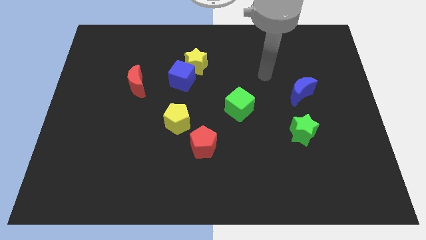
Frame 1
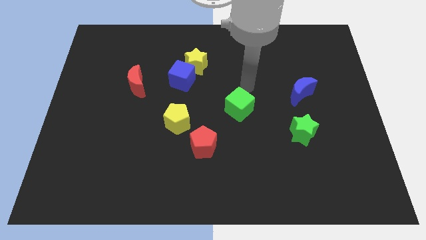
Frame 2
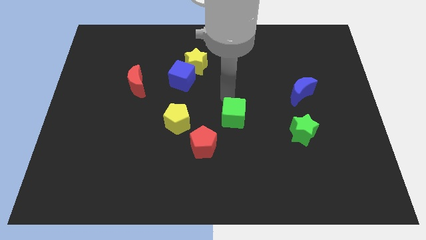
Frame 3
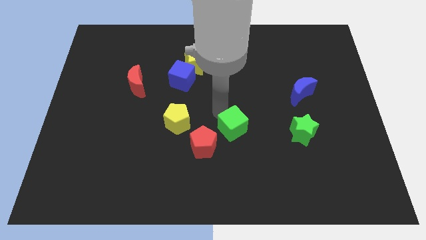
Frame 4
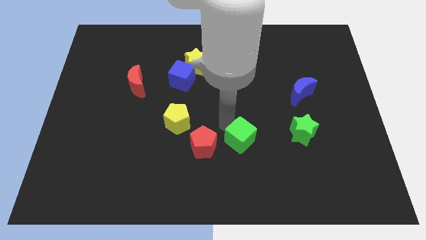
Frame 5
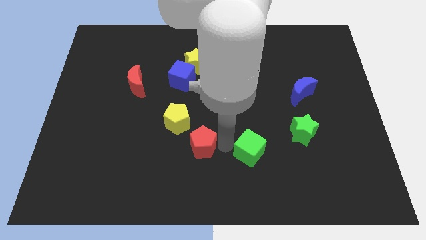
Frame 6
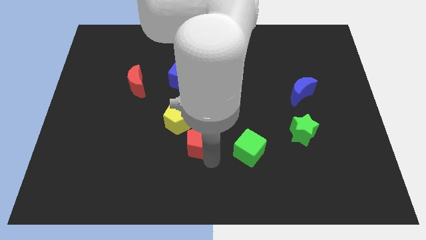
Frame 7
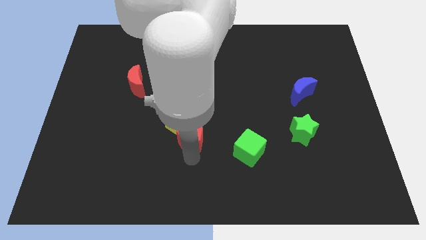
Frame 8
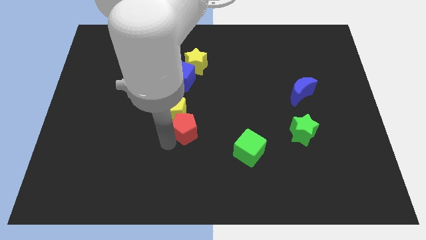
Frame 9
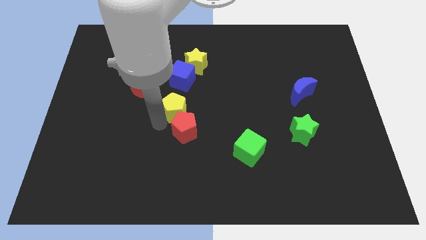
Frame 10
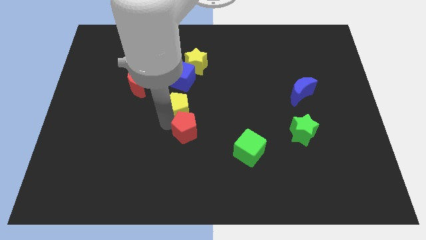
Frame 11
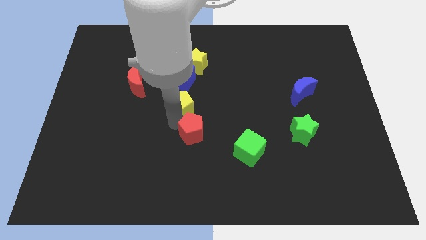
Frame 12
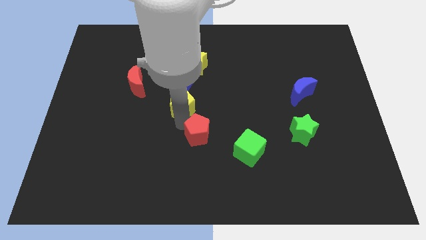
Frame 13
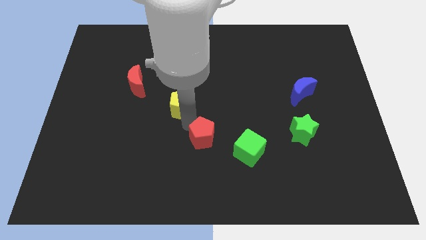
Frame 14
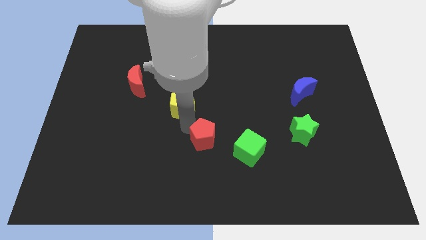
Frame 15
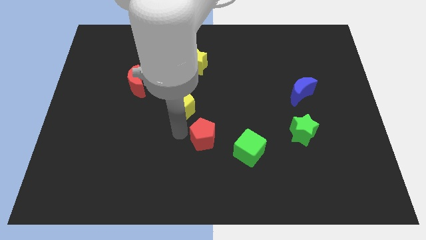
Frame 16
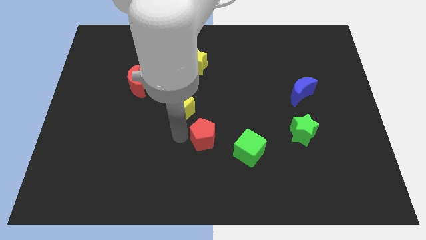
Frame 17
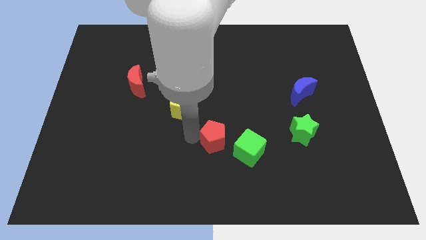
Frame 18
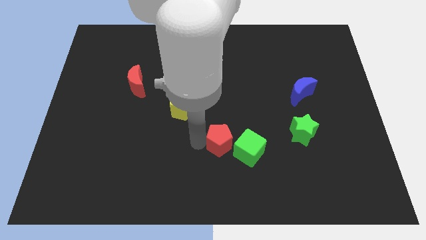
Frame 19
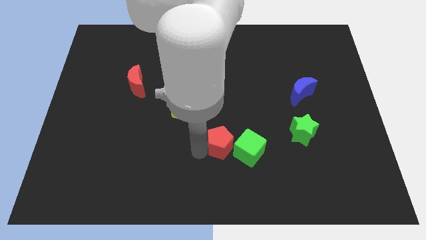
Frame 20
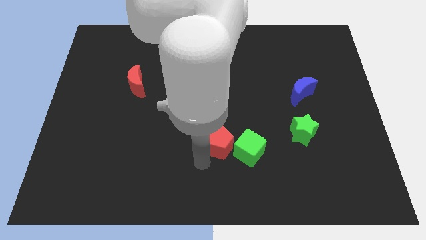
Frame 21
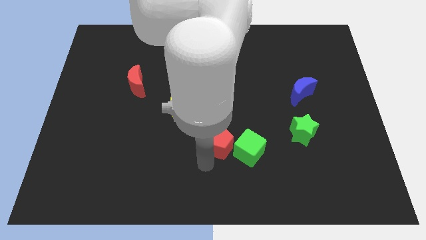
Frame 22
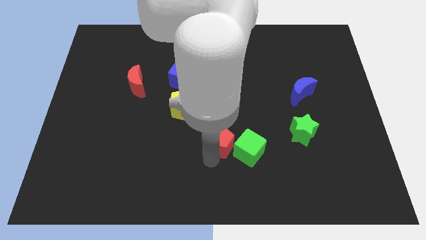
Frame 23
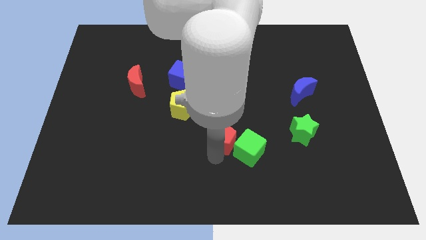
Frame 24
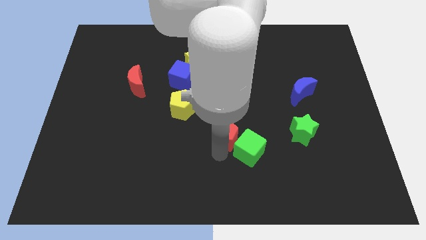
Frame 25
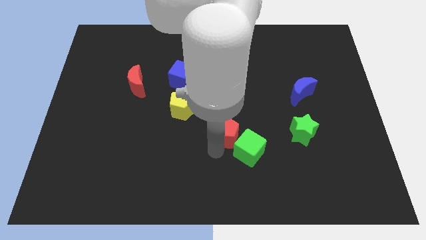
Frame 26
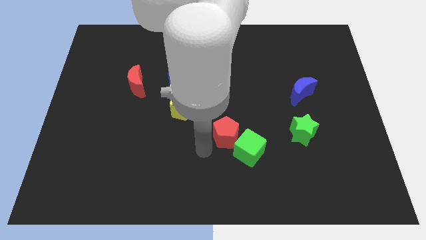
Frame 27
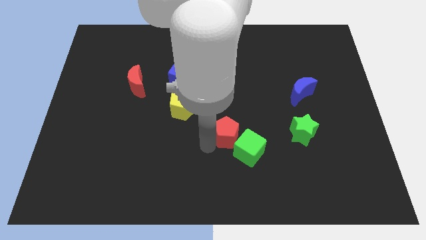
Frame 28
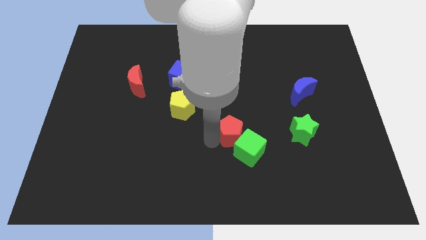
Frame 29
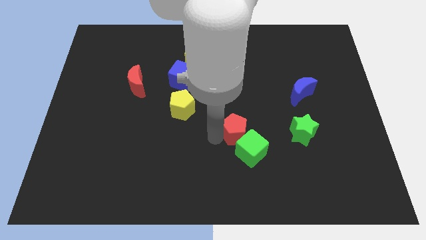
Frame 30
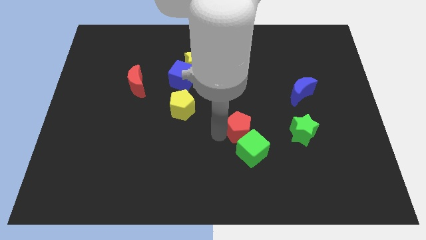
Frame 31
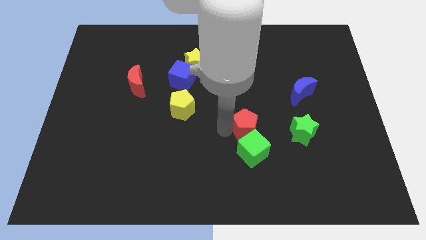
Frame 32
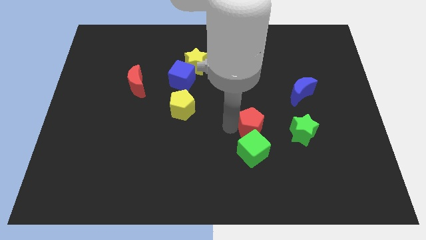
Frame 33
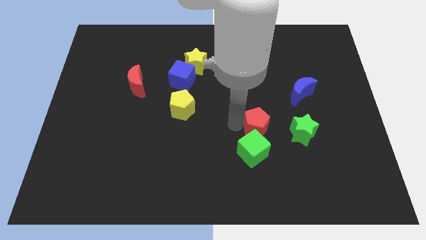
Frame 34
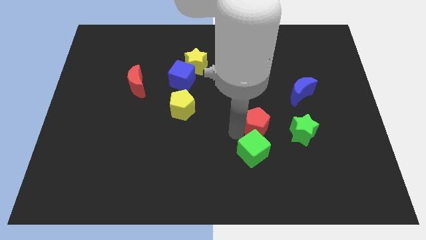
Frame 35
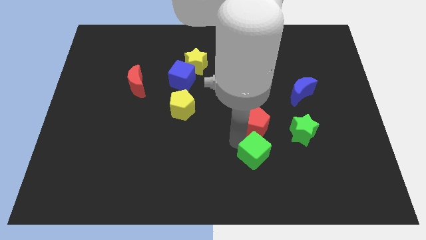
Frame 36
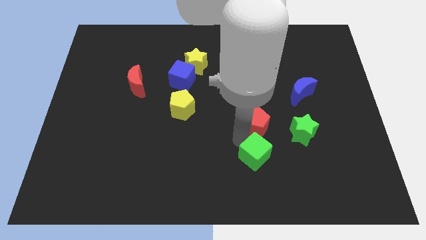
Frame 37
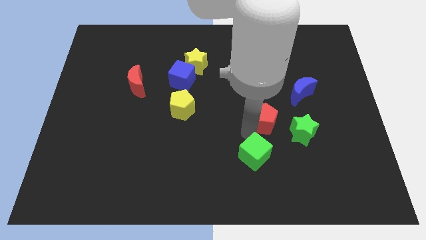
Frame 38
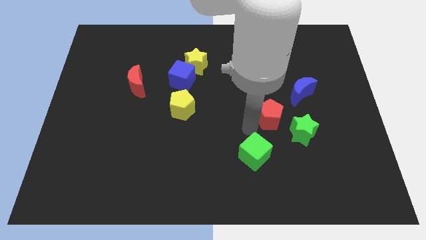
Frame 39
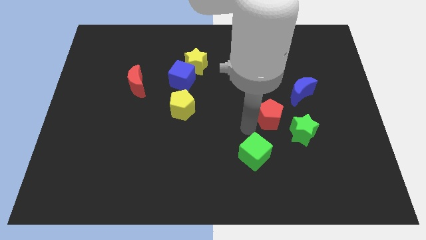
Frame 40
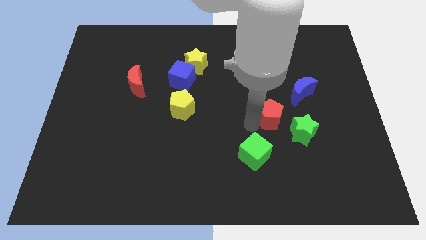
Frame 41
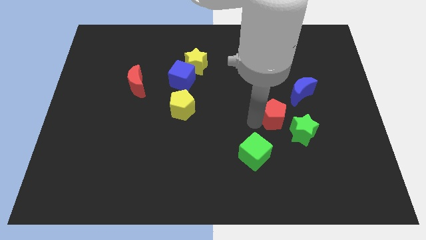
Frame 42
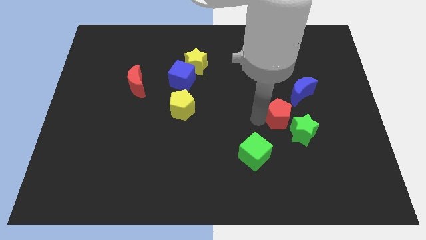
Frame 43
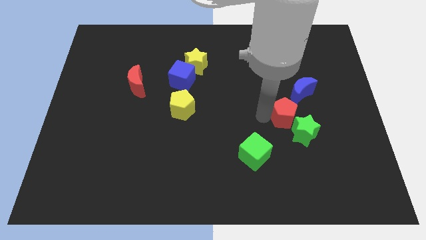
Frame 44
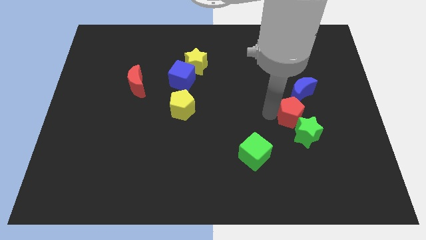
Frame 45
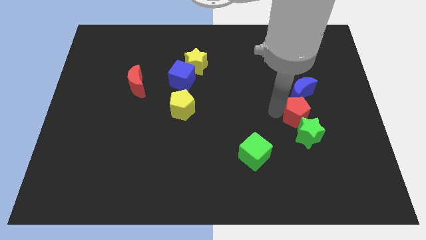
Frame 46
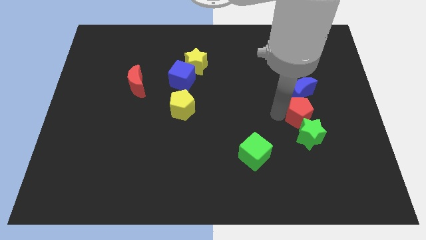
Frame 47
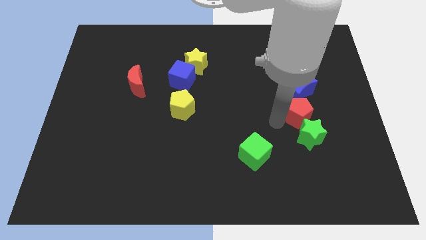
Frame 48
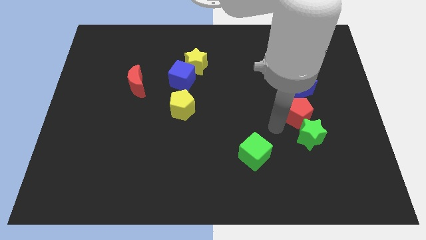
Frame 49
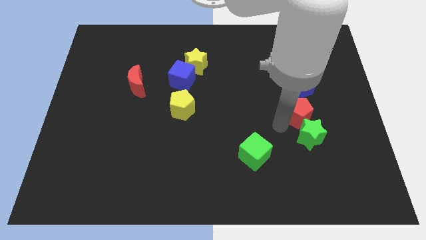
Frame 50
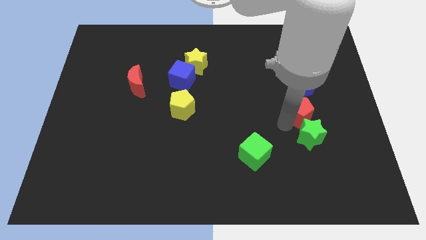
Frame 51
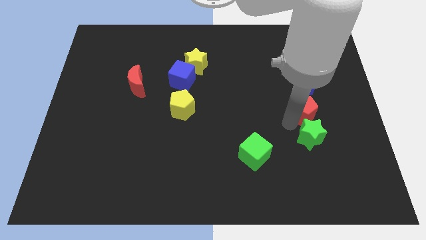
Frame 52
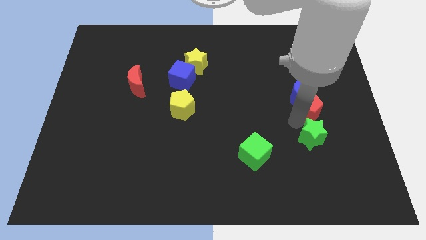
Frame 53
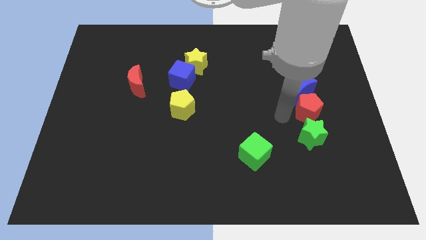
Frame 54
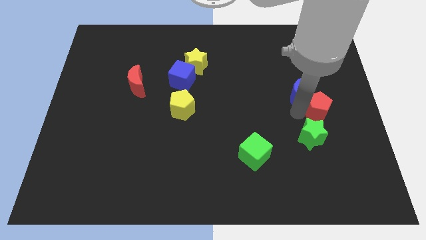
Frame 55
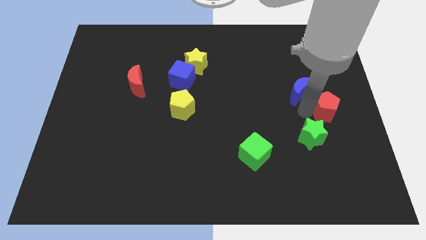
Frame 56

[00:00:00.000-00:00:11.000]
push the red pentagon to the right side

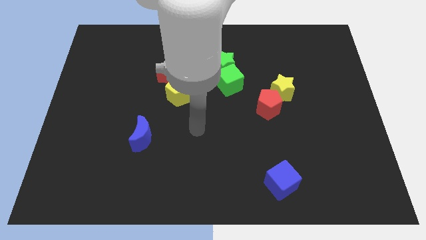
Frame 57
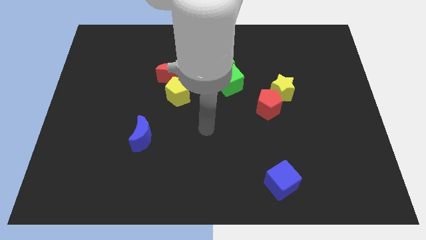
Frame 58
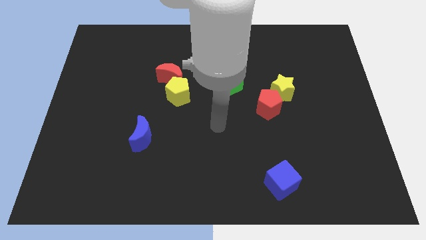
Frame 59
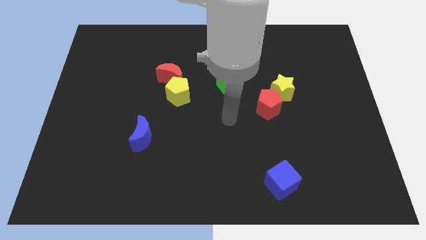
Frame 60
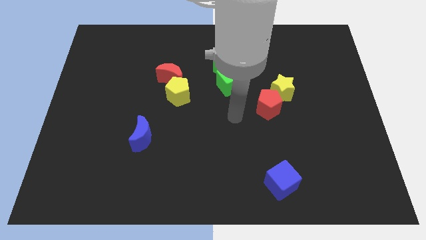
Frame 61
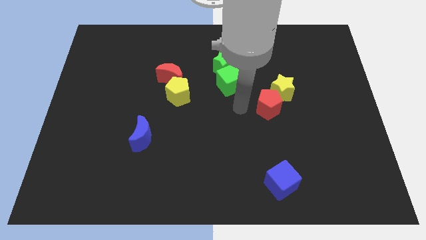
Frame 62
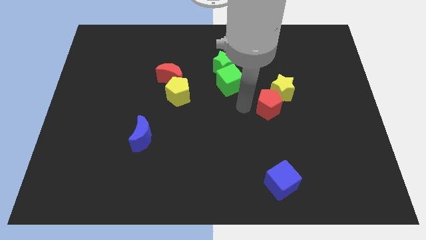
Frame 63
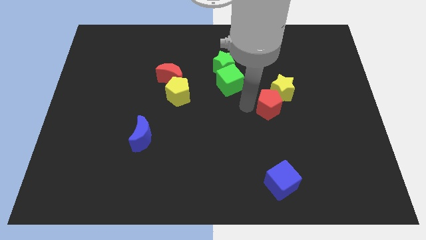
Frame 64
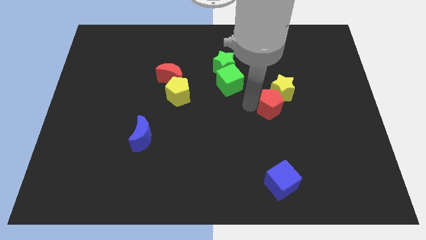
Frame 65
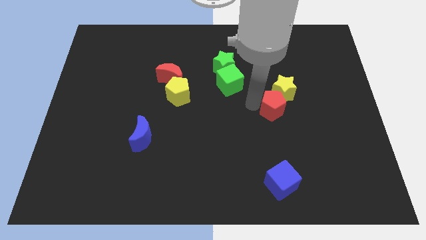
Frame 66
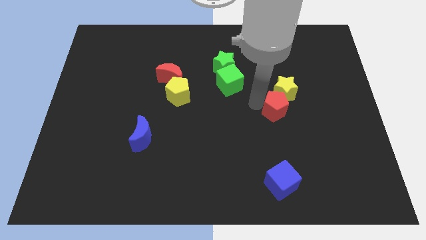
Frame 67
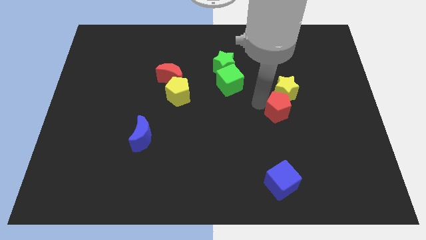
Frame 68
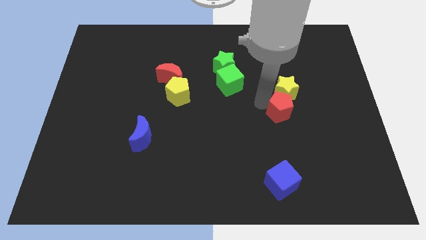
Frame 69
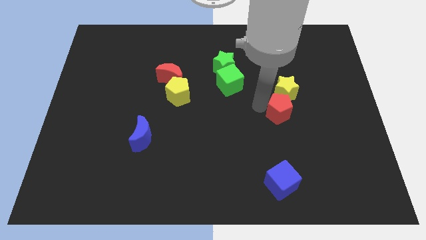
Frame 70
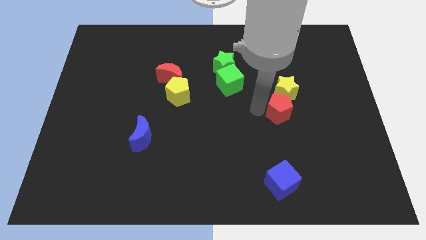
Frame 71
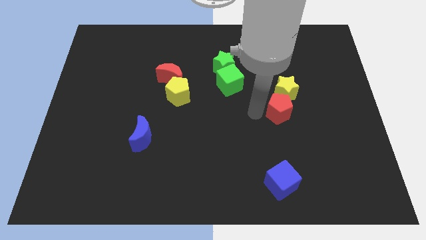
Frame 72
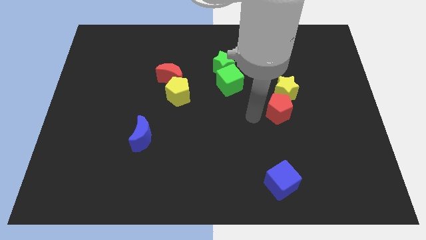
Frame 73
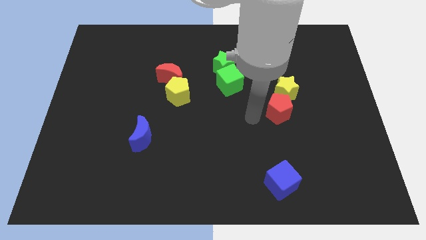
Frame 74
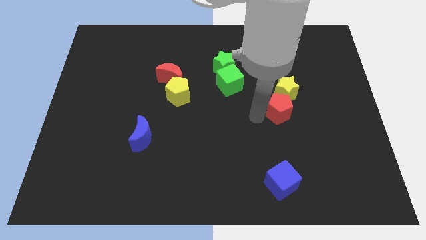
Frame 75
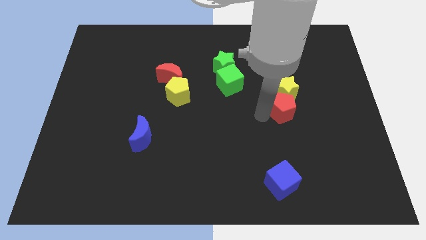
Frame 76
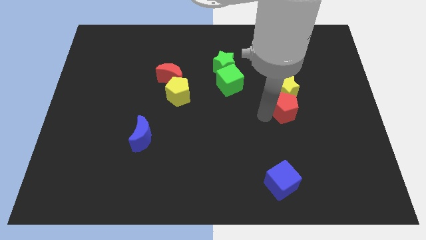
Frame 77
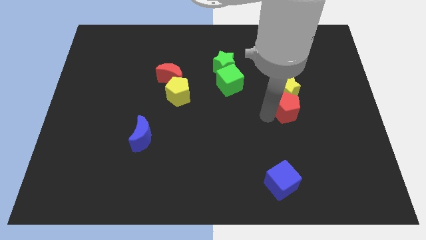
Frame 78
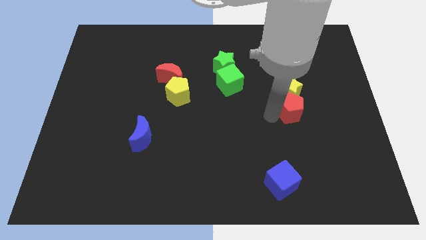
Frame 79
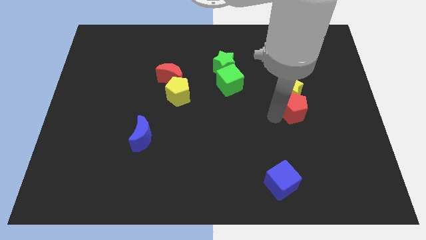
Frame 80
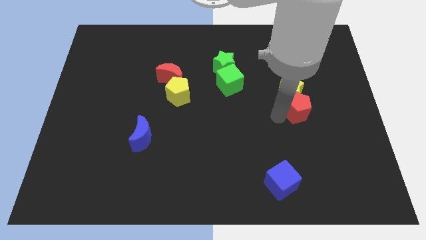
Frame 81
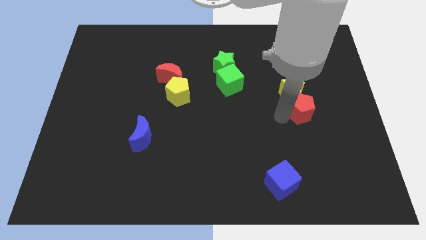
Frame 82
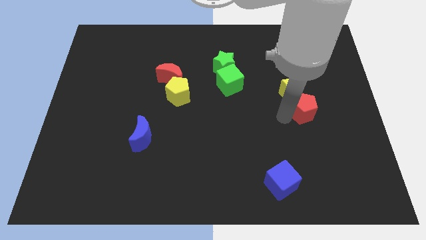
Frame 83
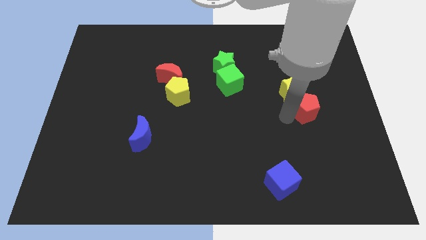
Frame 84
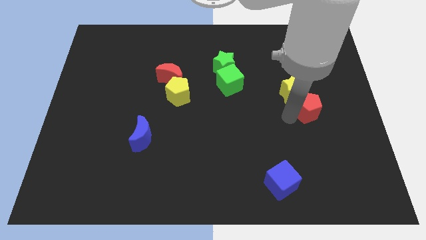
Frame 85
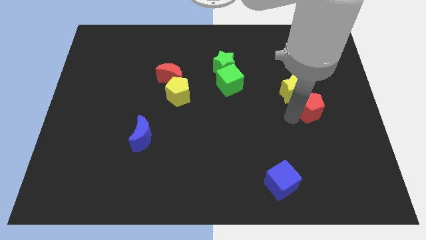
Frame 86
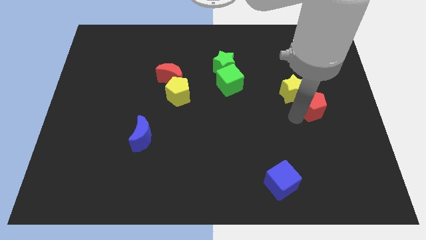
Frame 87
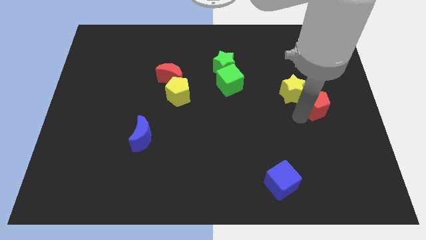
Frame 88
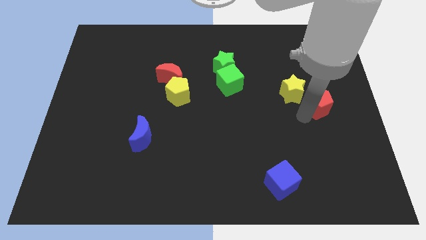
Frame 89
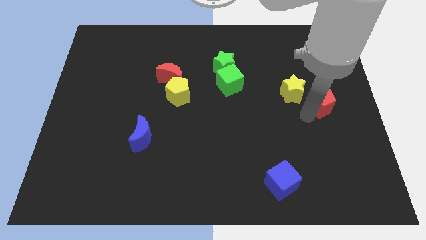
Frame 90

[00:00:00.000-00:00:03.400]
move the red pentagon to the right side
